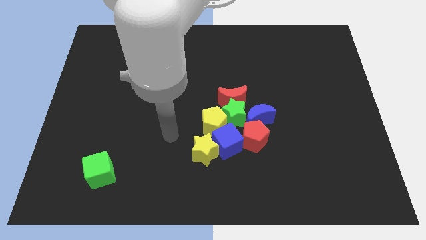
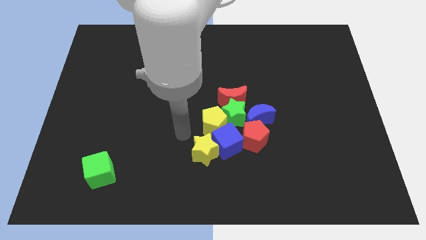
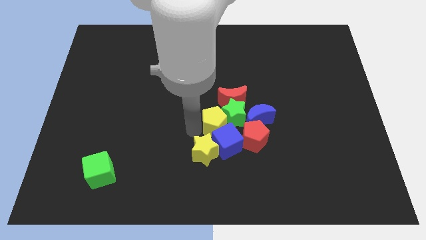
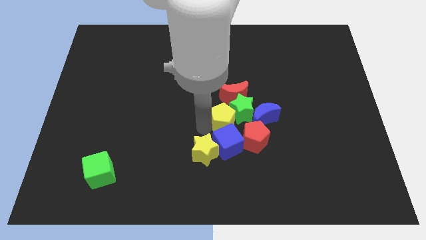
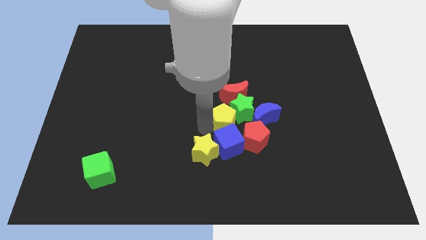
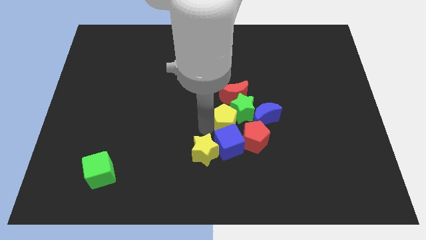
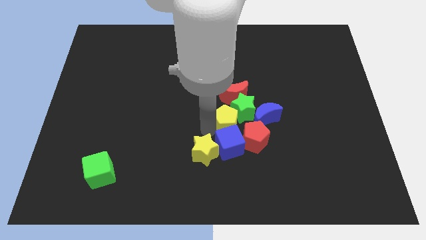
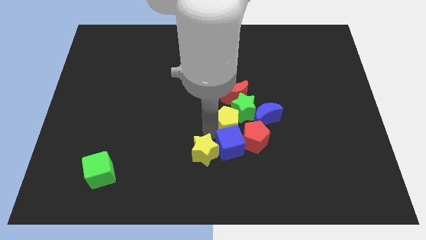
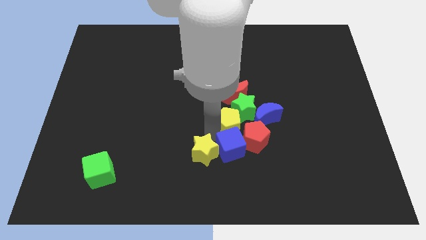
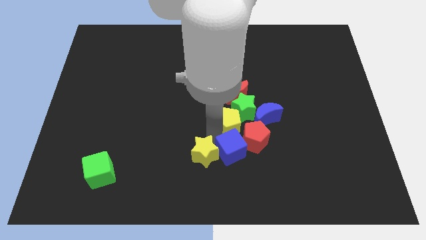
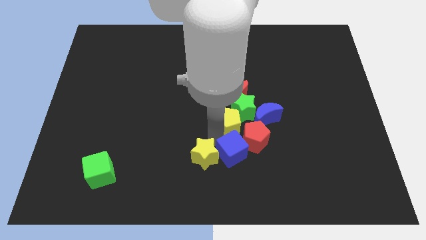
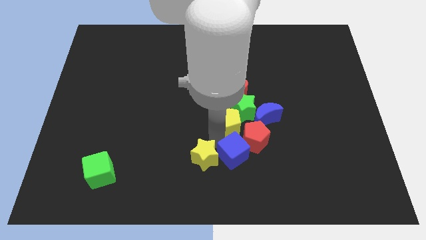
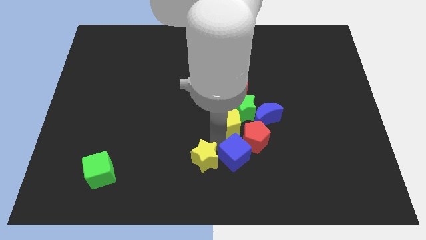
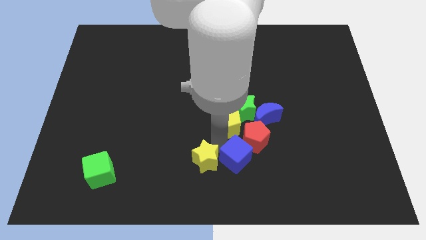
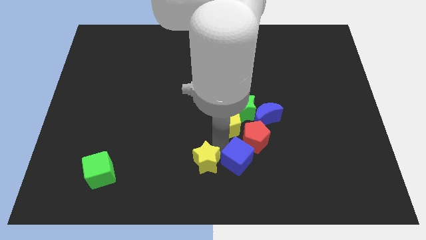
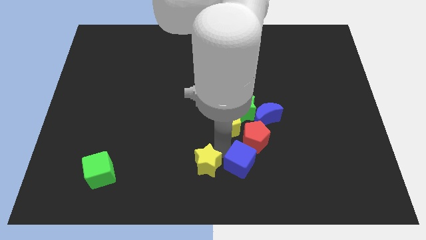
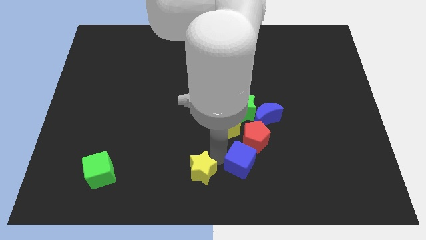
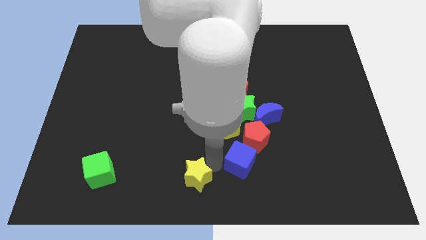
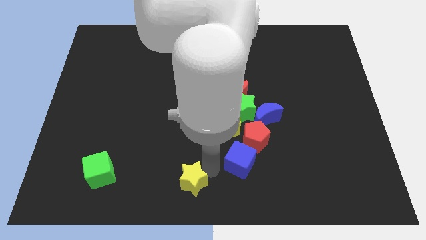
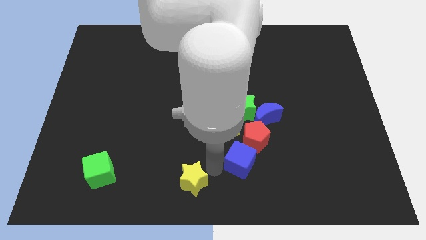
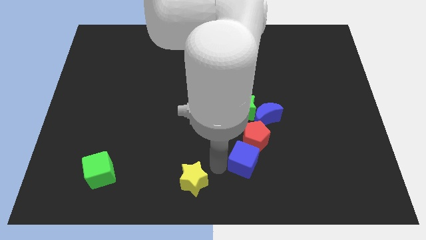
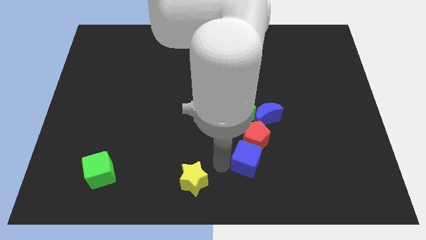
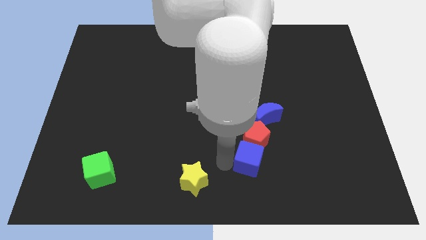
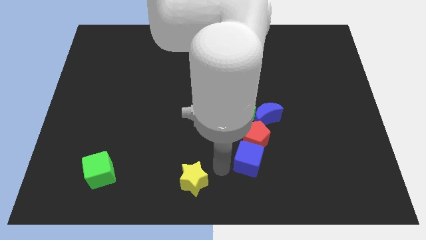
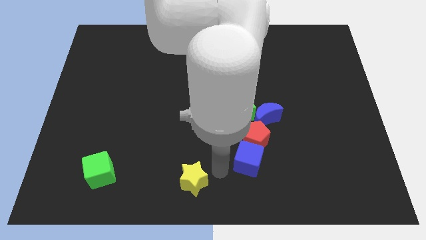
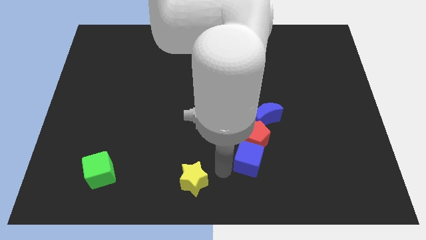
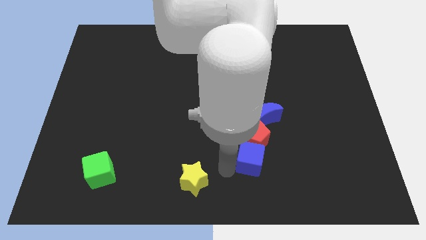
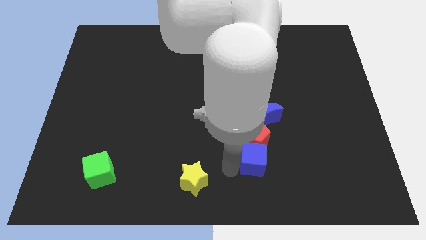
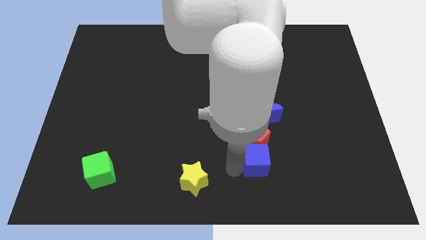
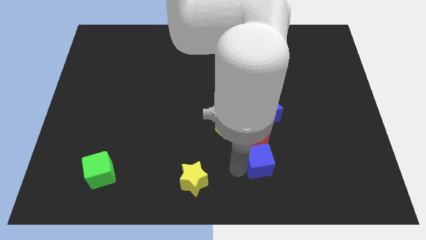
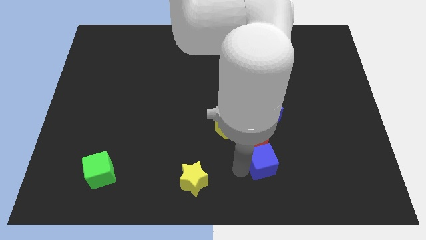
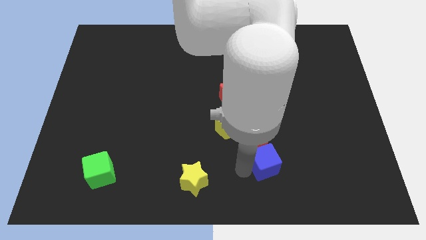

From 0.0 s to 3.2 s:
slightly move the blue cube right

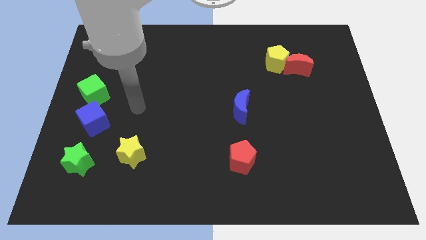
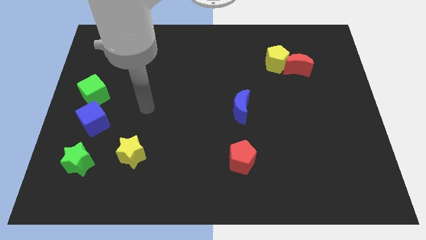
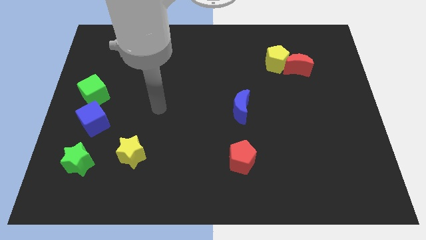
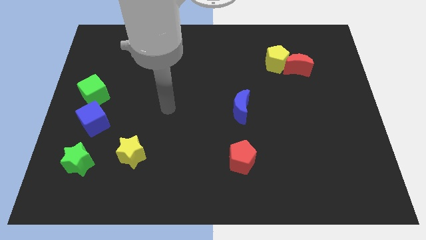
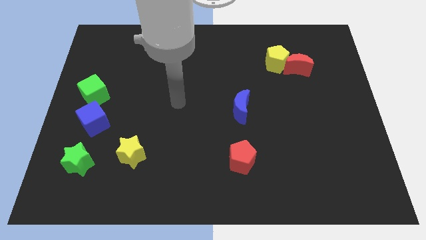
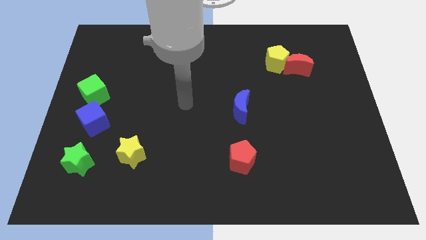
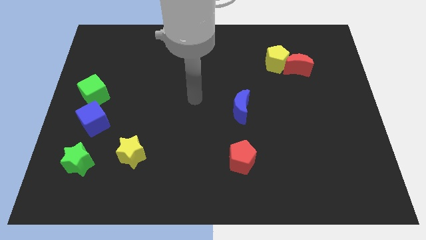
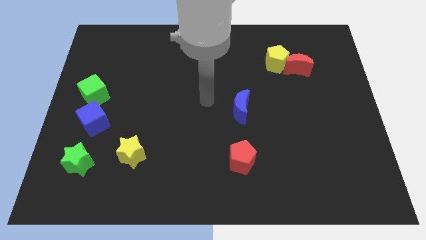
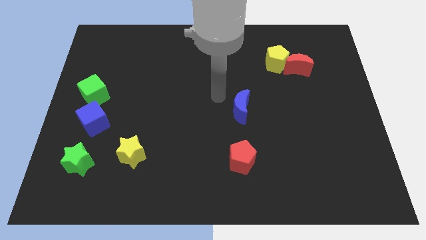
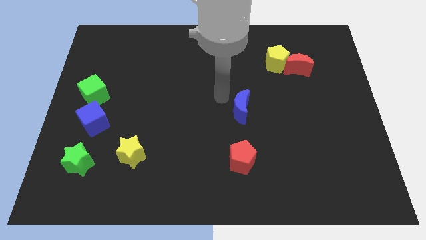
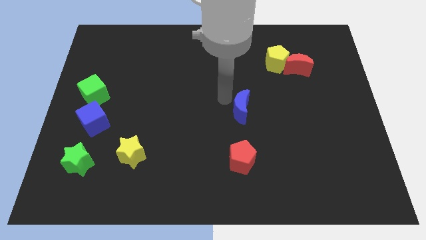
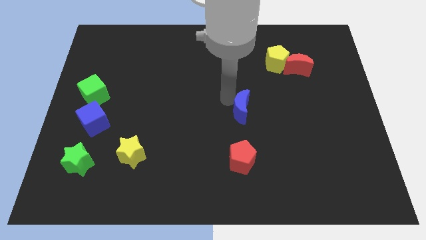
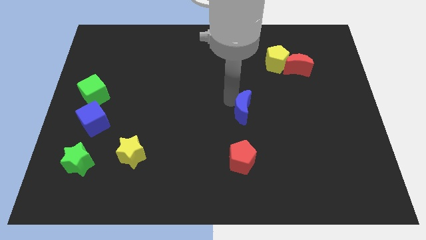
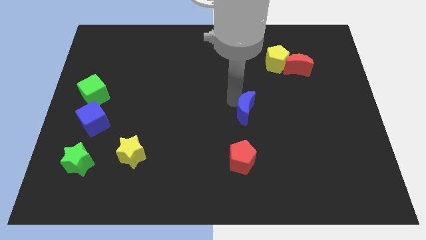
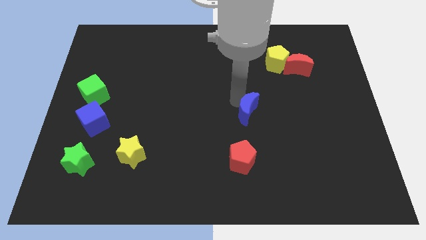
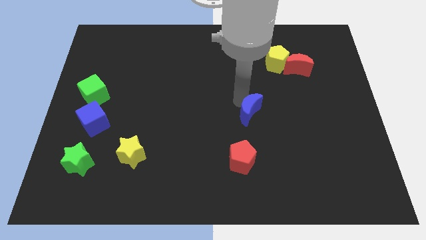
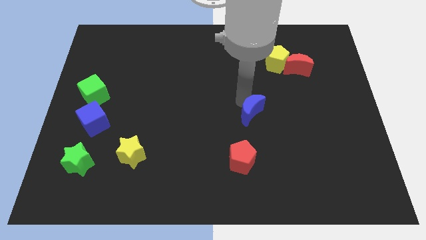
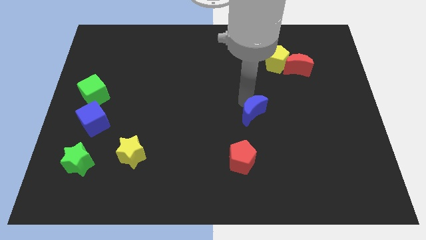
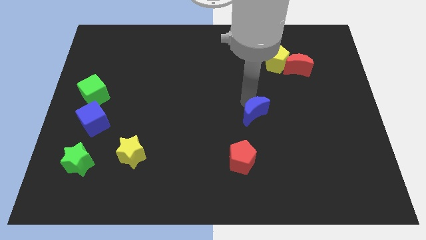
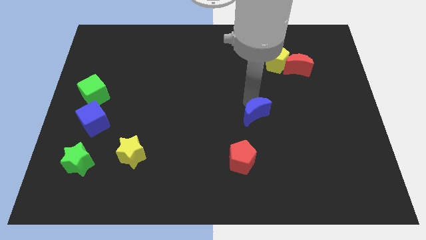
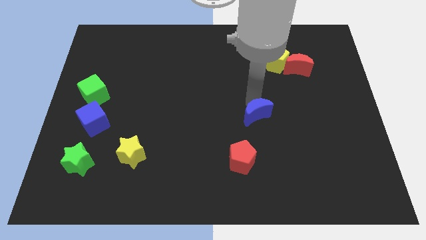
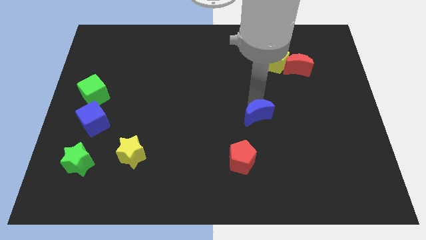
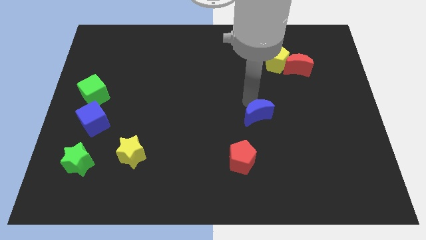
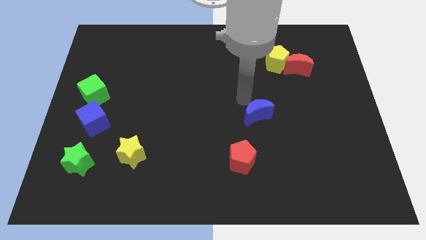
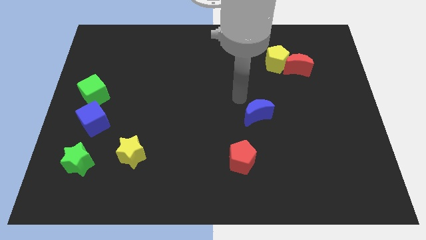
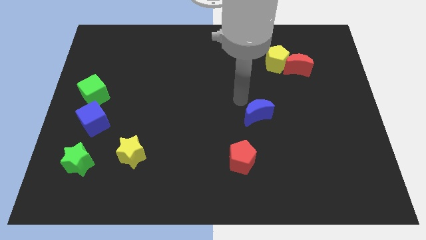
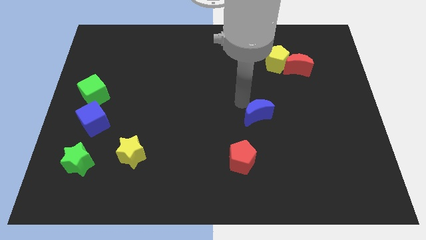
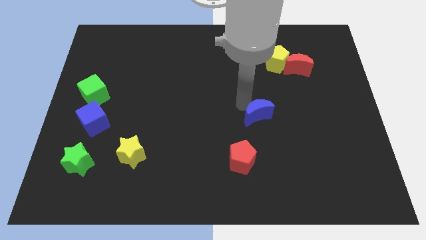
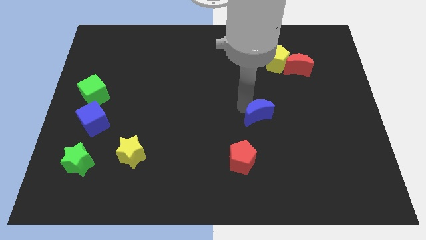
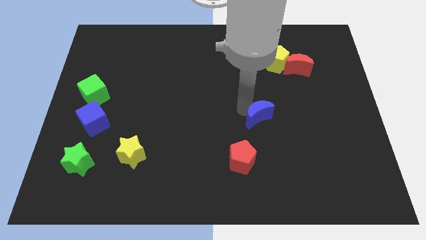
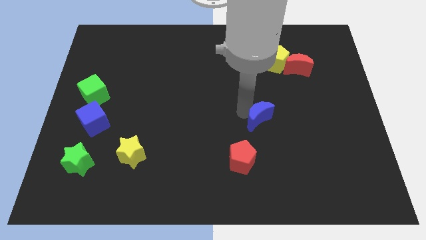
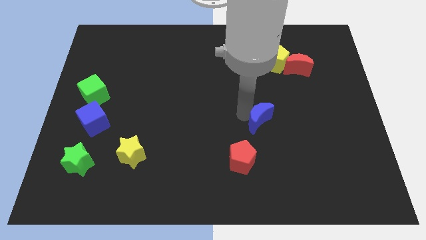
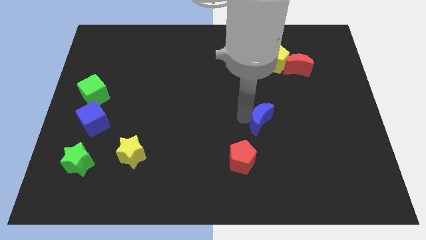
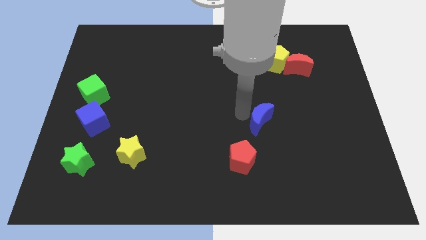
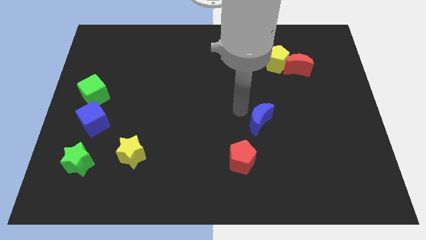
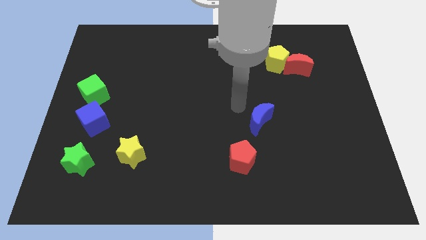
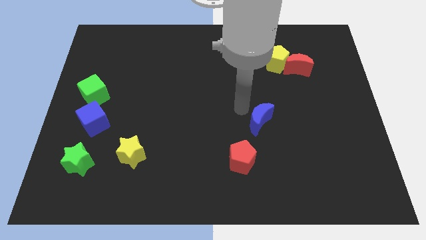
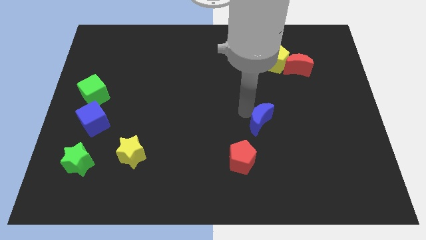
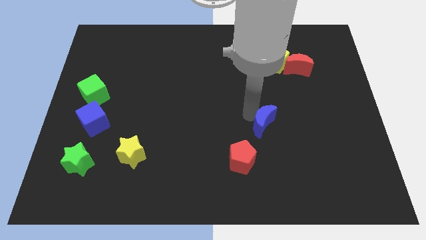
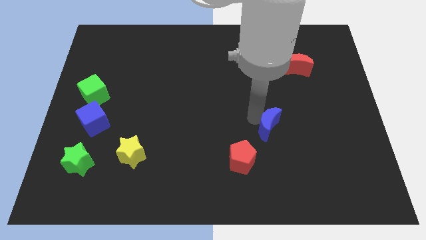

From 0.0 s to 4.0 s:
move the blue moon slightly downwards and to the right diagonally

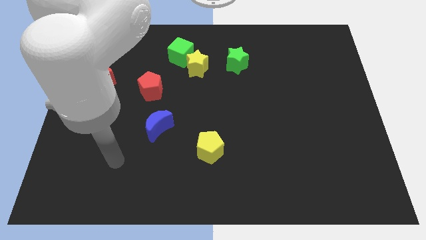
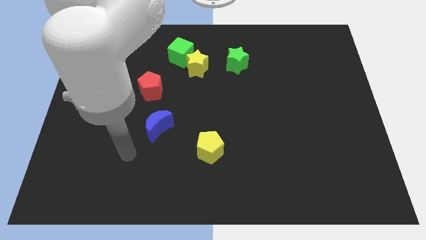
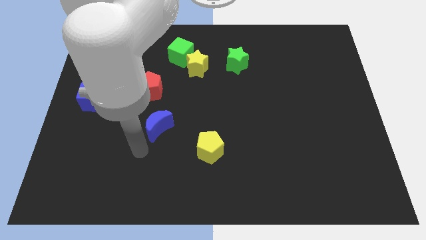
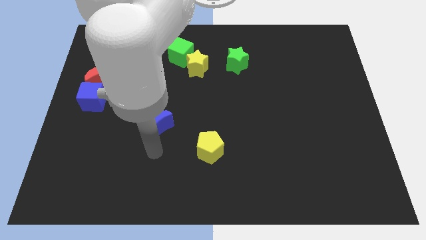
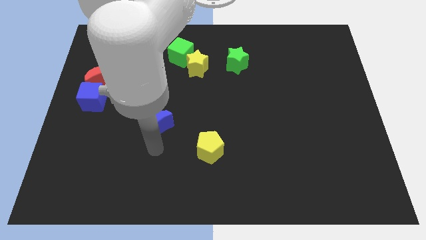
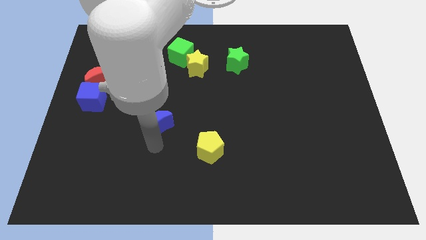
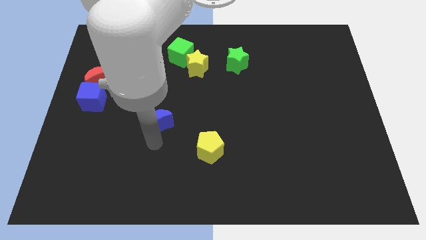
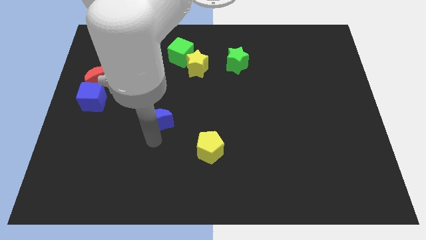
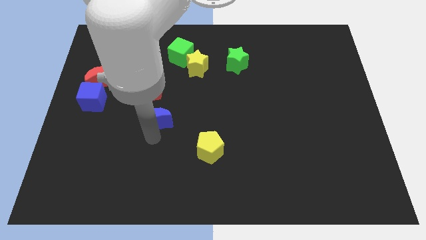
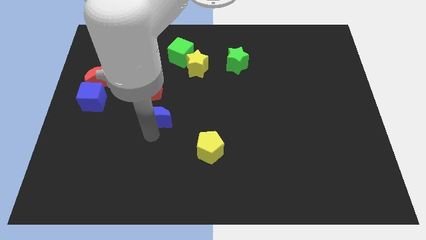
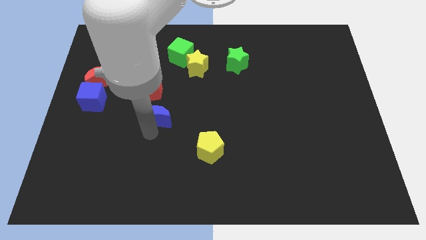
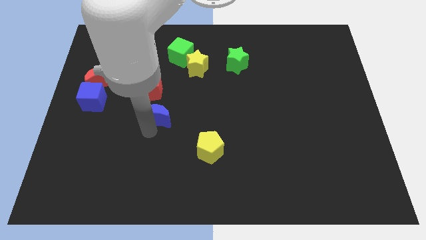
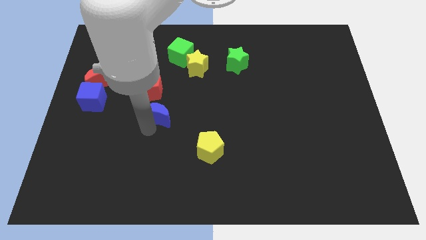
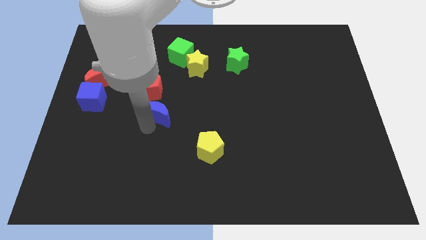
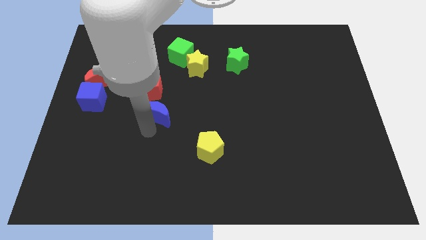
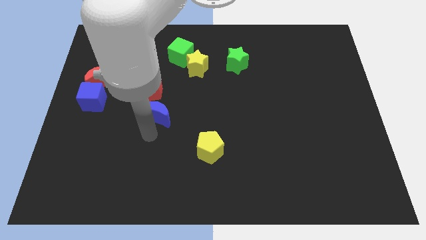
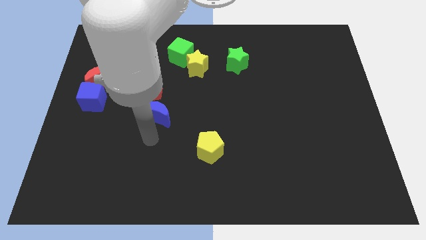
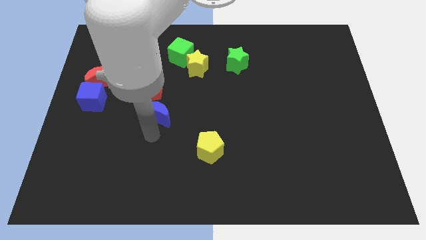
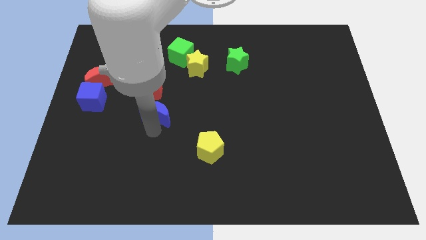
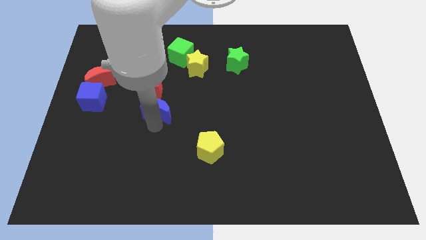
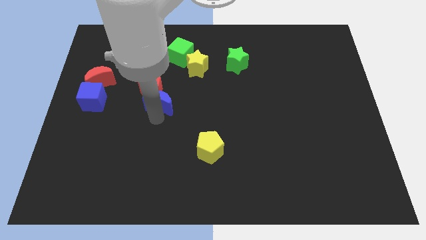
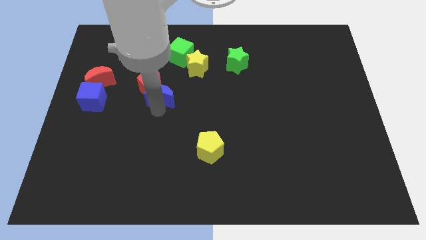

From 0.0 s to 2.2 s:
move the blue moon somewhat upwards
